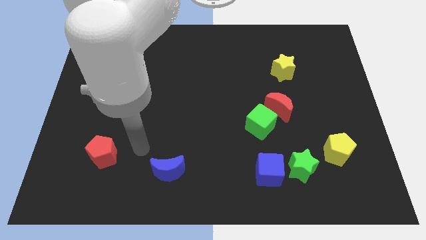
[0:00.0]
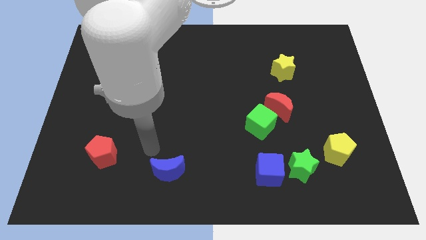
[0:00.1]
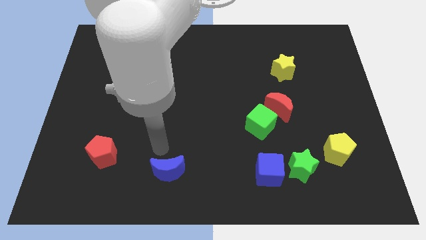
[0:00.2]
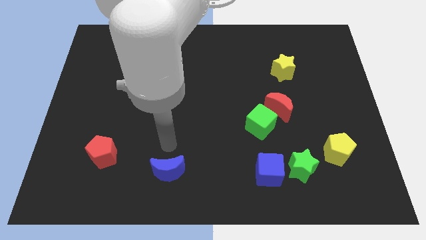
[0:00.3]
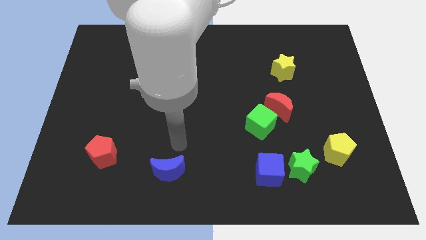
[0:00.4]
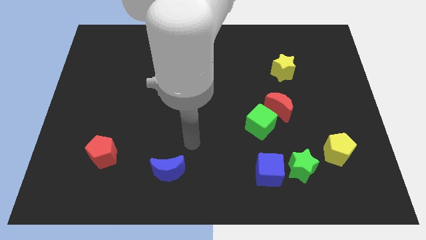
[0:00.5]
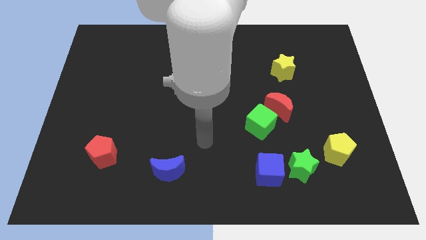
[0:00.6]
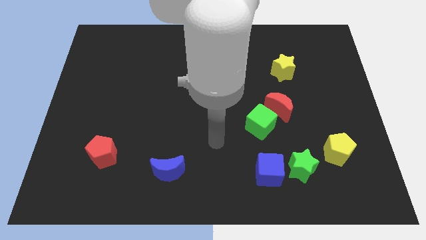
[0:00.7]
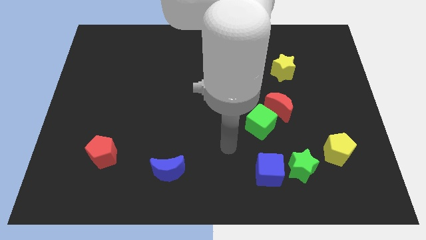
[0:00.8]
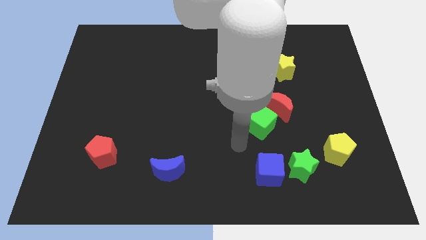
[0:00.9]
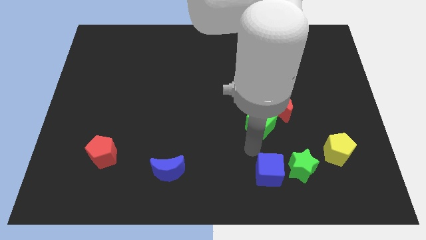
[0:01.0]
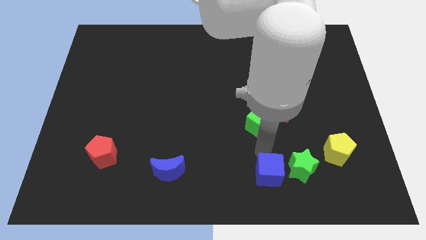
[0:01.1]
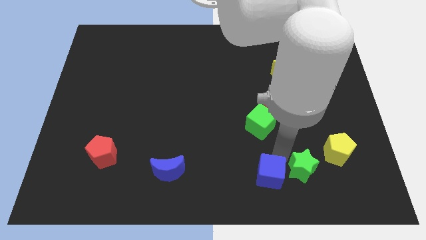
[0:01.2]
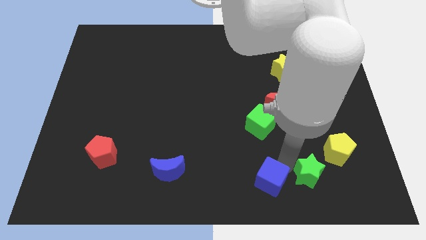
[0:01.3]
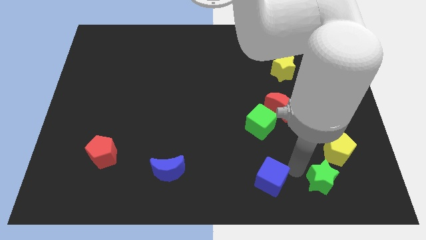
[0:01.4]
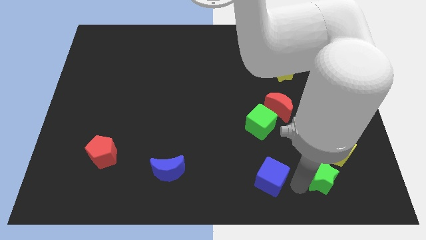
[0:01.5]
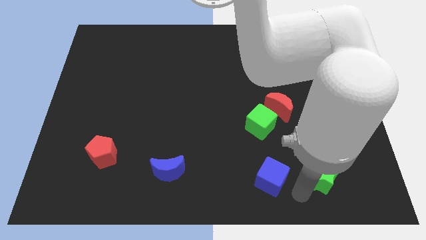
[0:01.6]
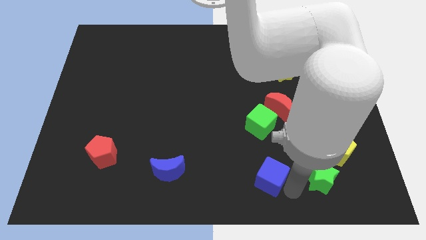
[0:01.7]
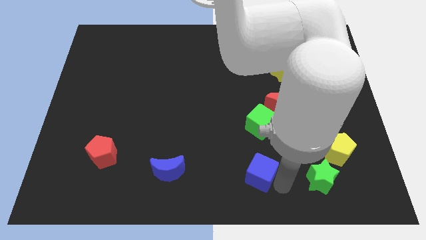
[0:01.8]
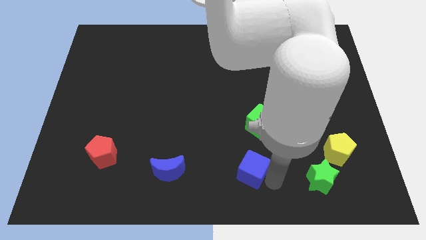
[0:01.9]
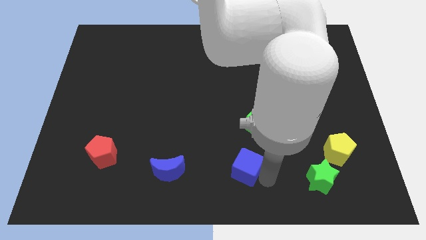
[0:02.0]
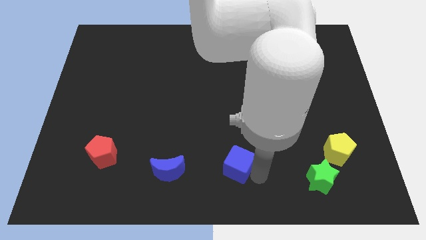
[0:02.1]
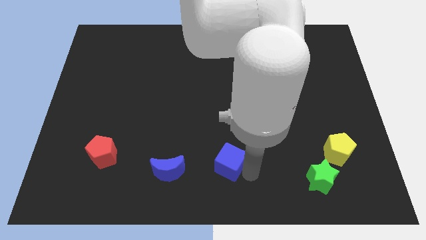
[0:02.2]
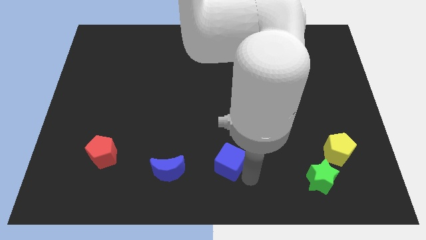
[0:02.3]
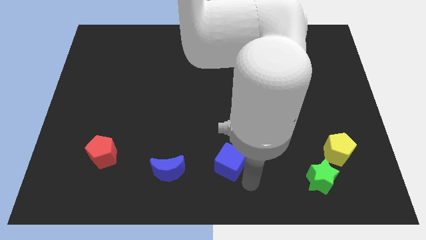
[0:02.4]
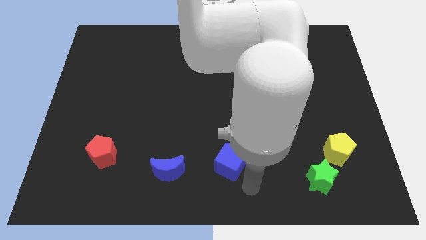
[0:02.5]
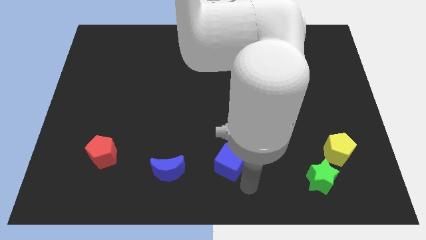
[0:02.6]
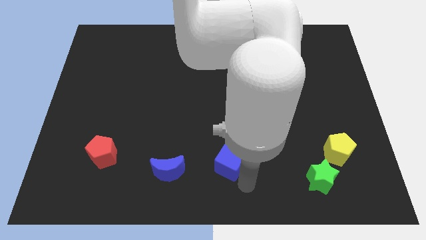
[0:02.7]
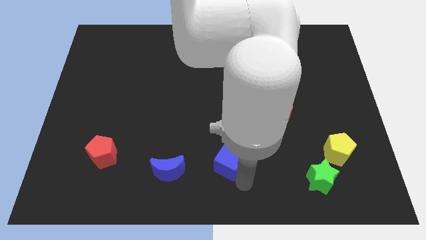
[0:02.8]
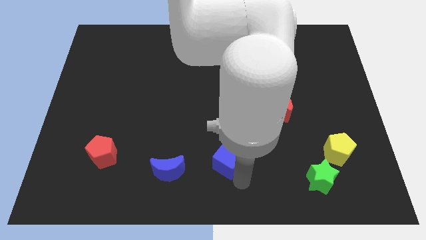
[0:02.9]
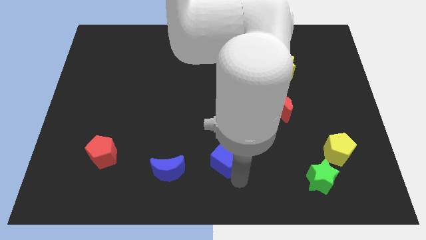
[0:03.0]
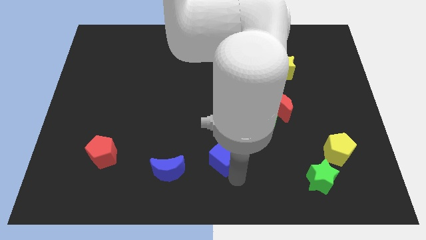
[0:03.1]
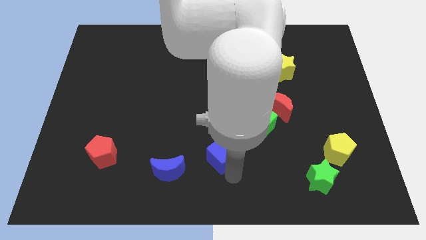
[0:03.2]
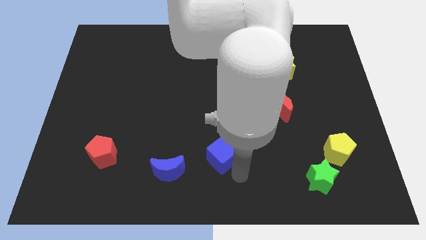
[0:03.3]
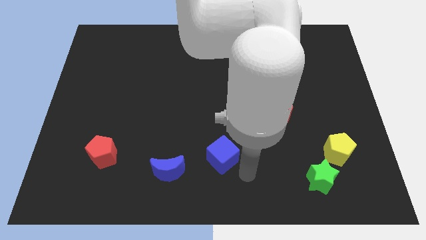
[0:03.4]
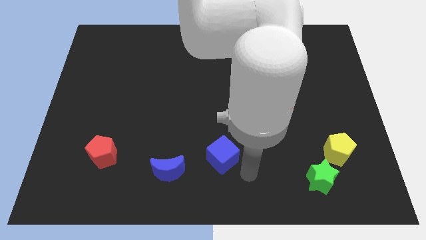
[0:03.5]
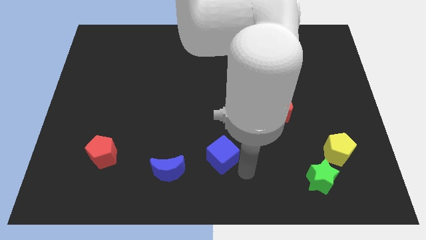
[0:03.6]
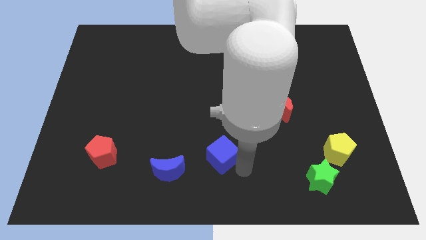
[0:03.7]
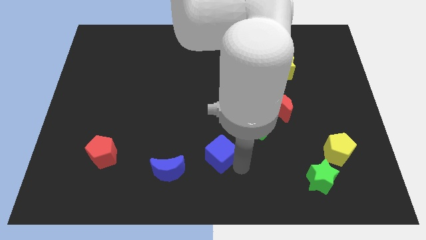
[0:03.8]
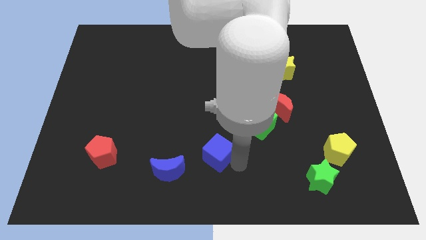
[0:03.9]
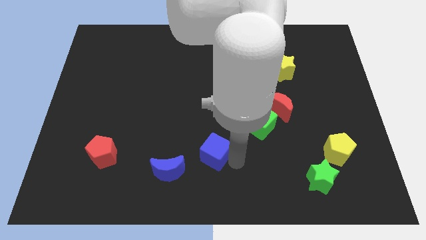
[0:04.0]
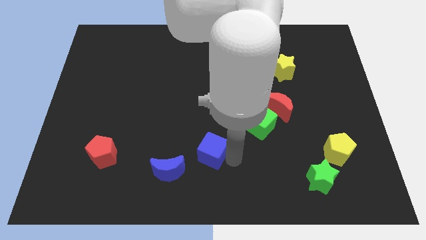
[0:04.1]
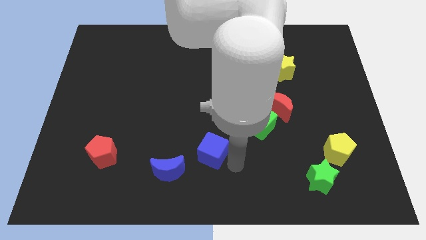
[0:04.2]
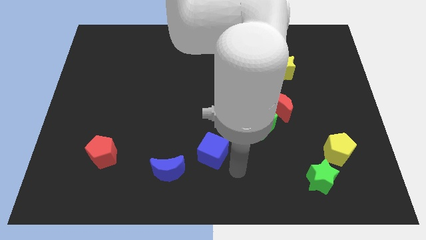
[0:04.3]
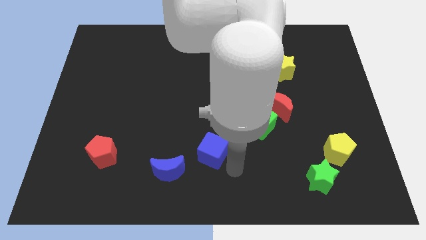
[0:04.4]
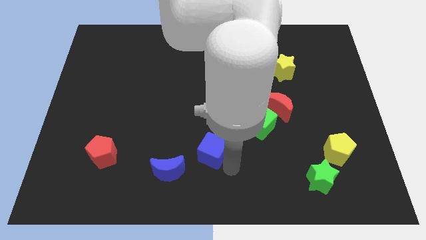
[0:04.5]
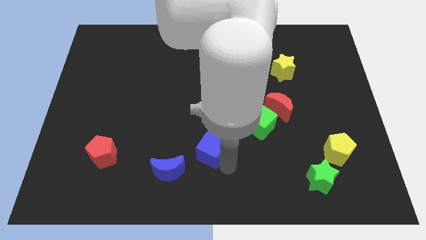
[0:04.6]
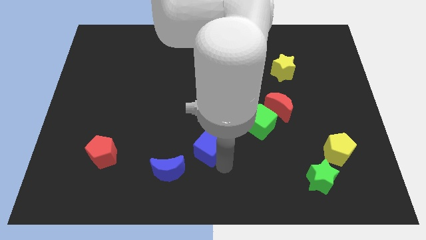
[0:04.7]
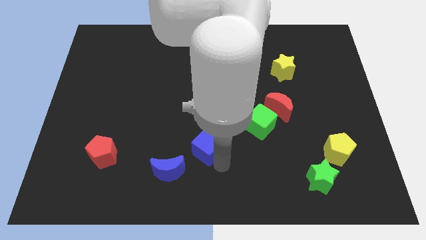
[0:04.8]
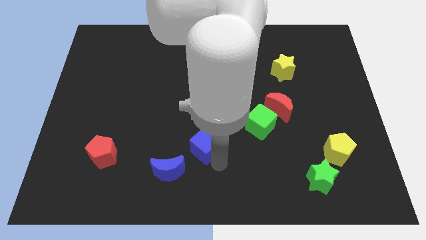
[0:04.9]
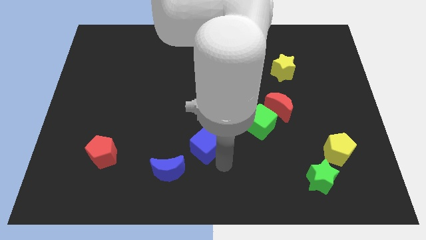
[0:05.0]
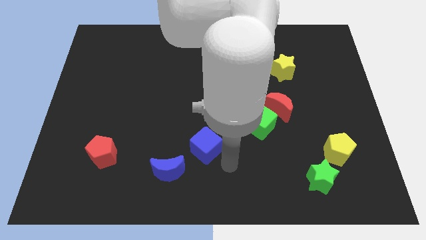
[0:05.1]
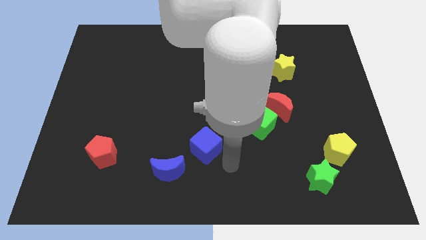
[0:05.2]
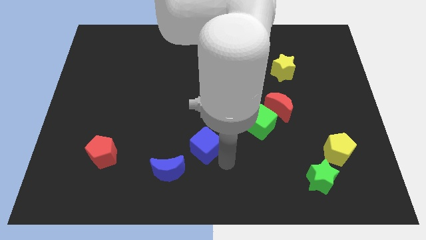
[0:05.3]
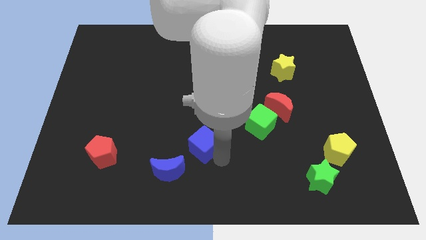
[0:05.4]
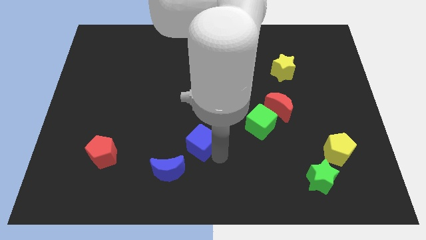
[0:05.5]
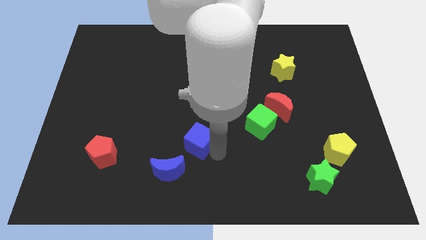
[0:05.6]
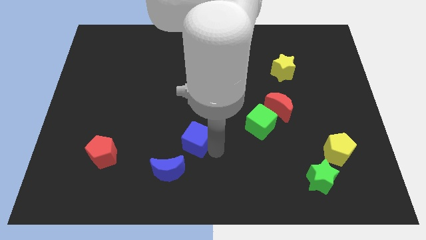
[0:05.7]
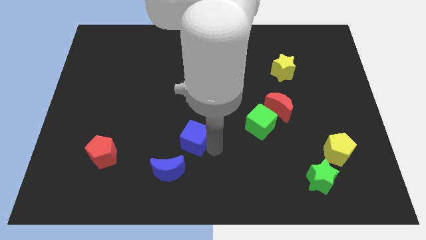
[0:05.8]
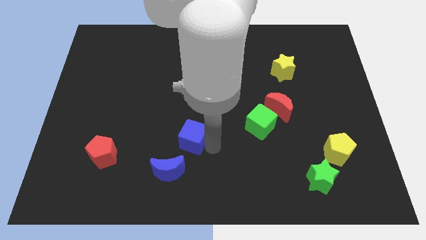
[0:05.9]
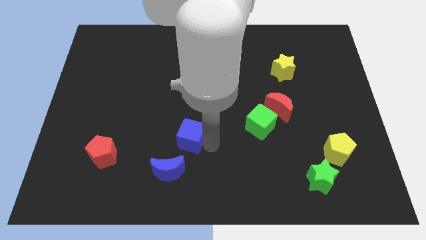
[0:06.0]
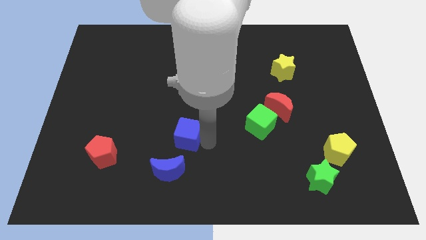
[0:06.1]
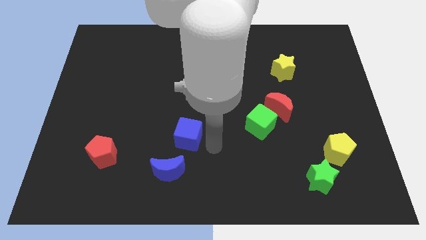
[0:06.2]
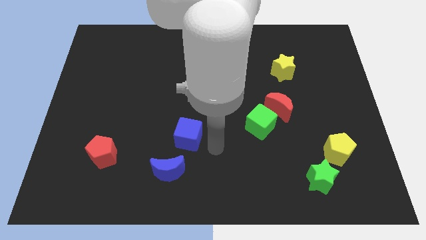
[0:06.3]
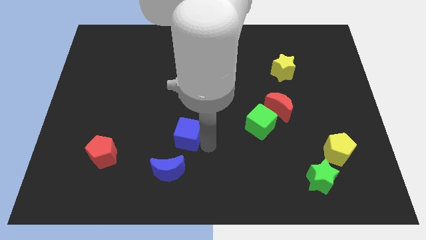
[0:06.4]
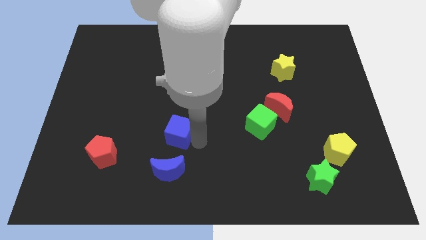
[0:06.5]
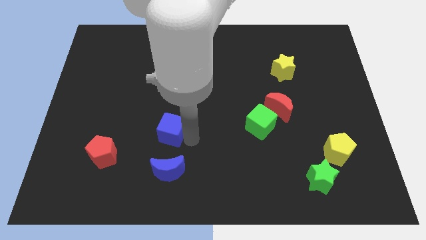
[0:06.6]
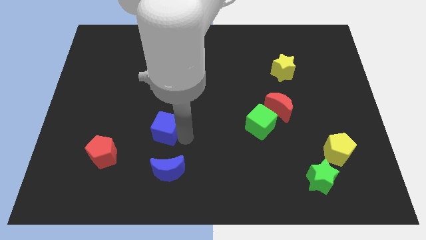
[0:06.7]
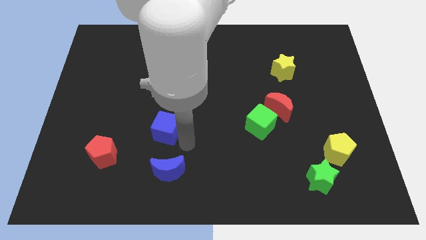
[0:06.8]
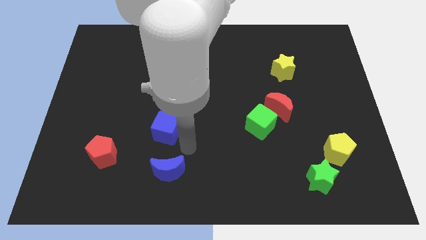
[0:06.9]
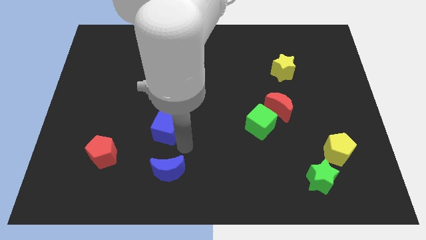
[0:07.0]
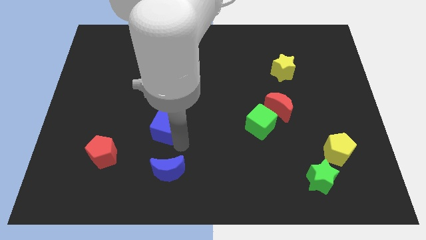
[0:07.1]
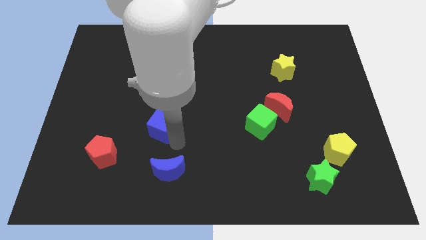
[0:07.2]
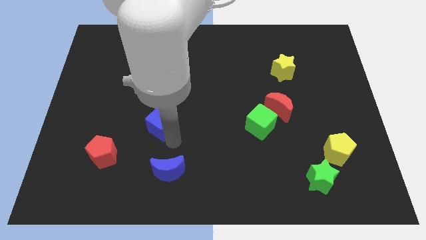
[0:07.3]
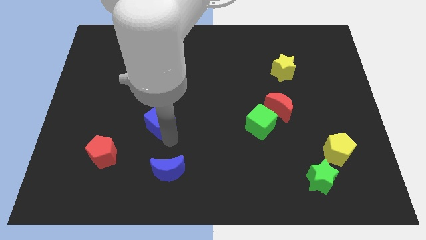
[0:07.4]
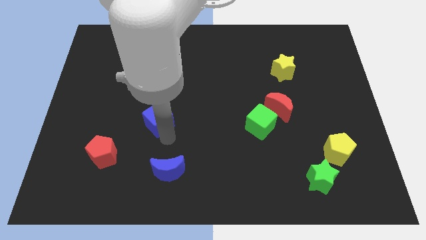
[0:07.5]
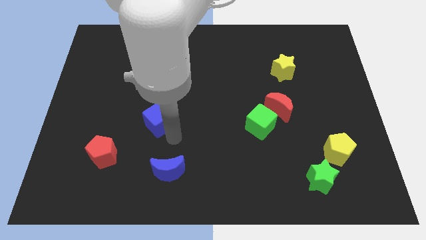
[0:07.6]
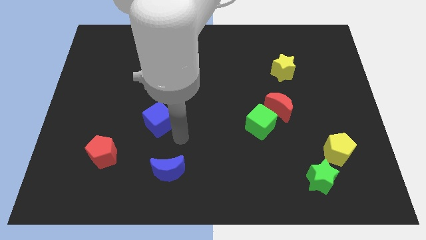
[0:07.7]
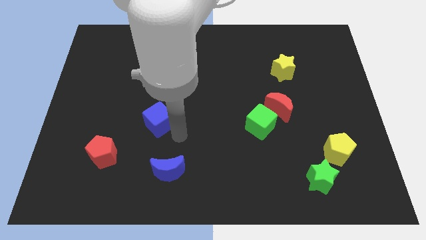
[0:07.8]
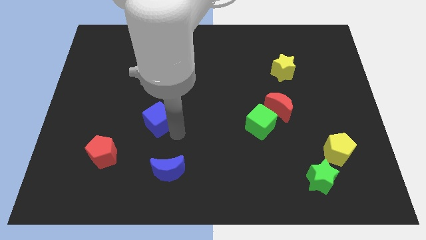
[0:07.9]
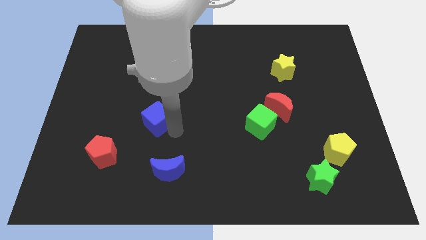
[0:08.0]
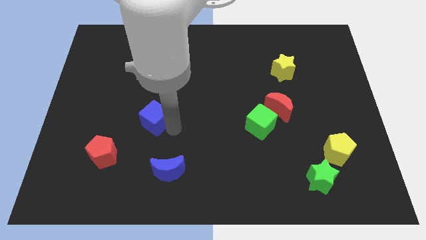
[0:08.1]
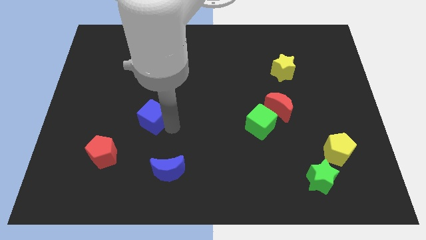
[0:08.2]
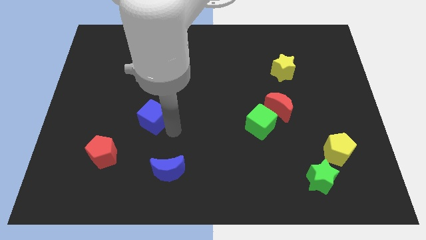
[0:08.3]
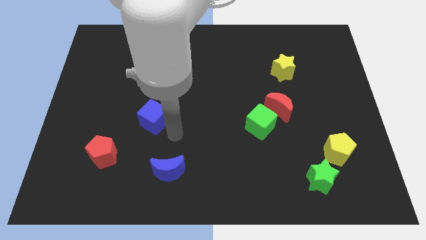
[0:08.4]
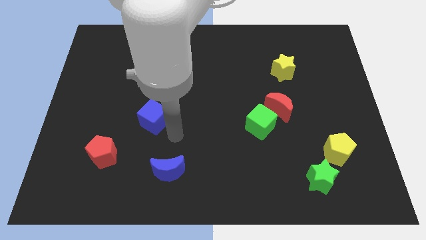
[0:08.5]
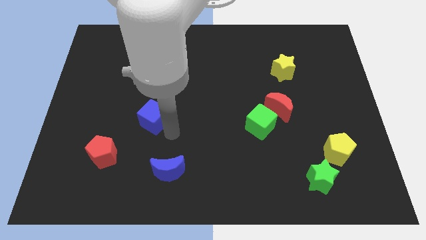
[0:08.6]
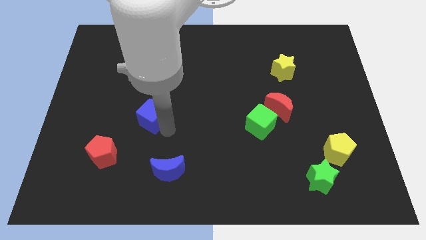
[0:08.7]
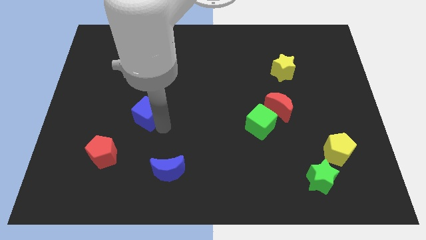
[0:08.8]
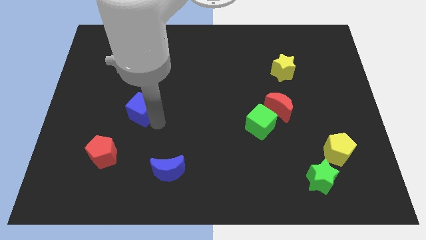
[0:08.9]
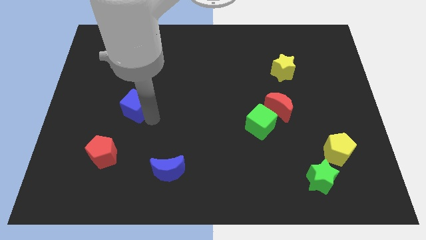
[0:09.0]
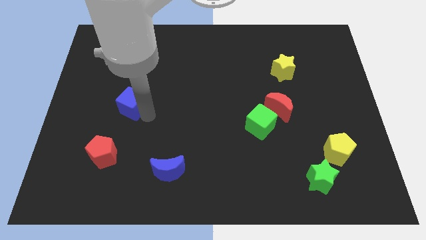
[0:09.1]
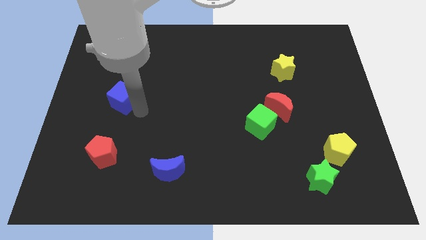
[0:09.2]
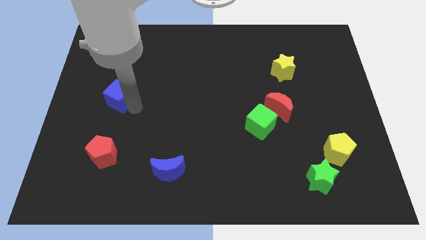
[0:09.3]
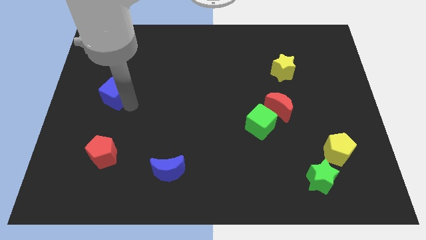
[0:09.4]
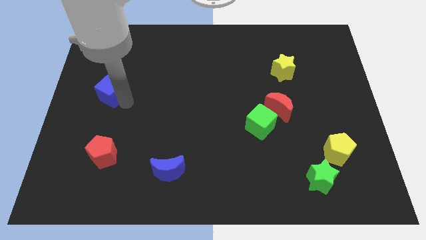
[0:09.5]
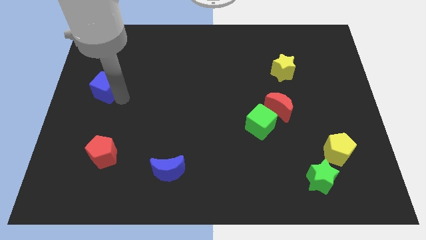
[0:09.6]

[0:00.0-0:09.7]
move the blue cube to the left side of the board
